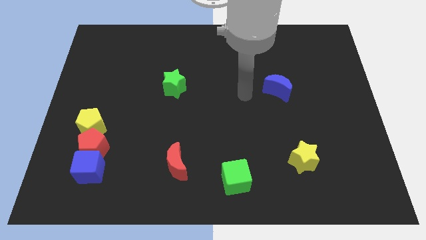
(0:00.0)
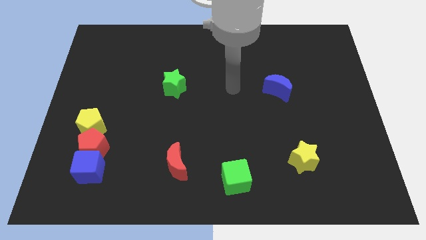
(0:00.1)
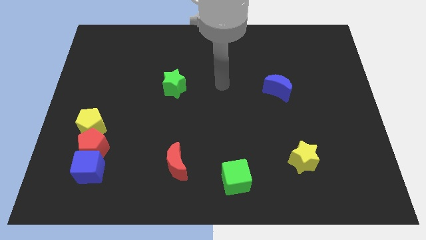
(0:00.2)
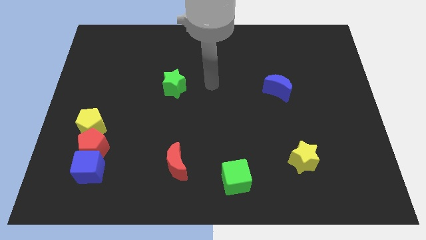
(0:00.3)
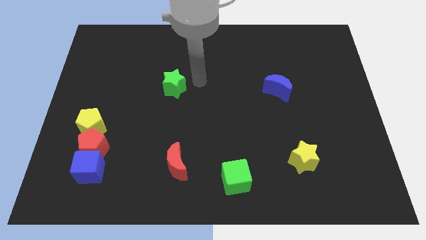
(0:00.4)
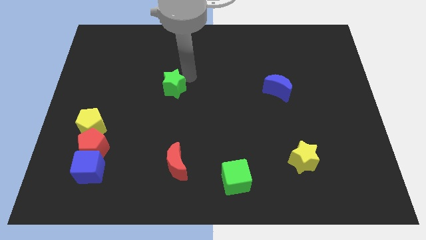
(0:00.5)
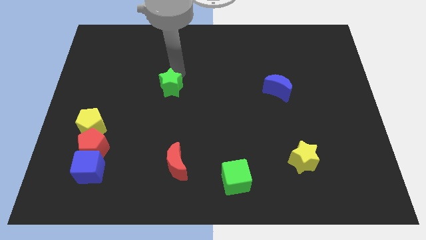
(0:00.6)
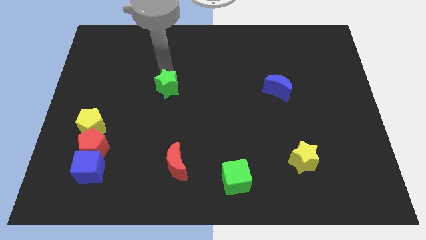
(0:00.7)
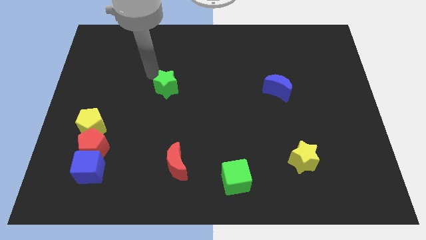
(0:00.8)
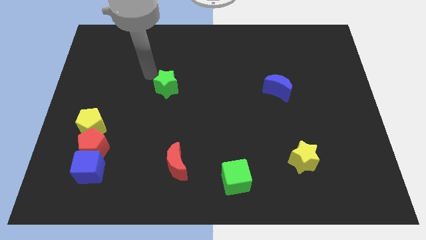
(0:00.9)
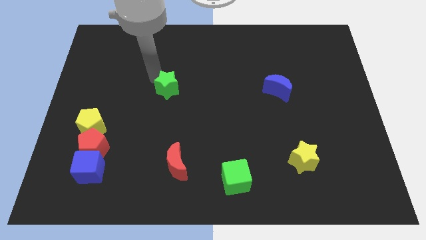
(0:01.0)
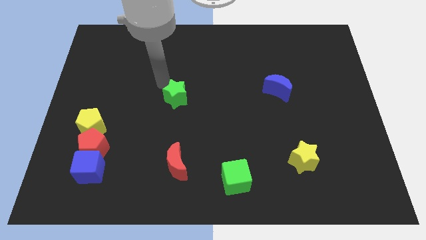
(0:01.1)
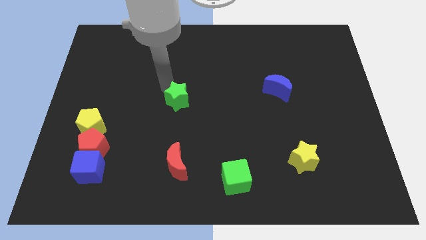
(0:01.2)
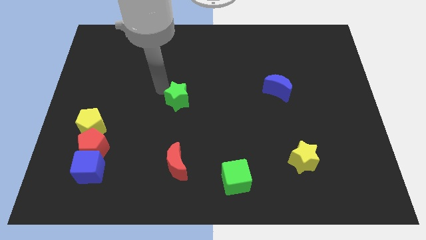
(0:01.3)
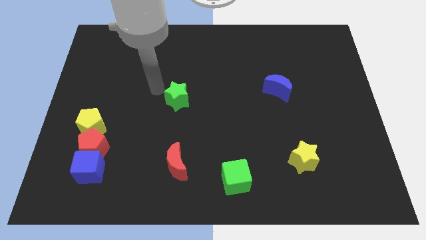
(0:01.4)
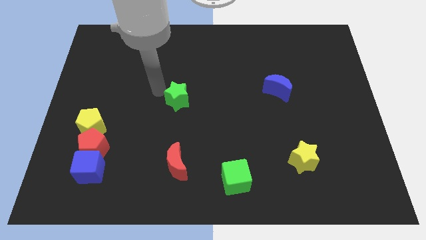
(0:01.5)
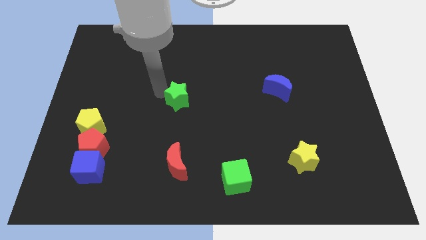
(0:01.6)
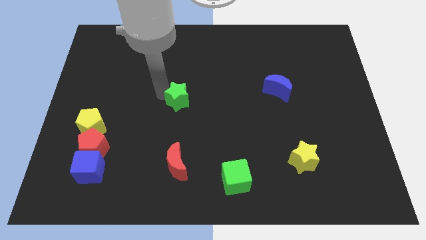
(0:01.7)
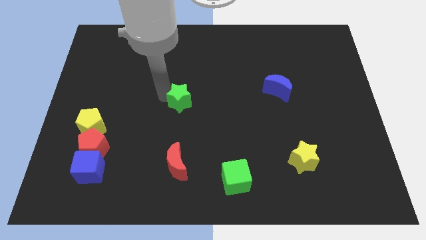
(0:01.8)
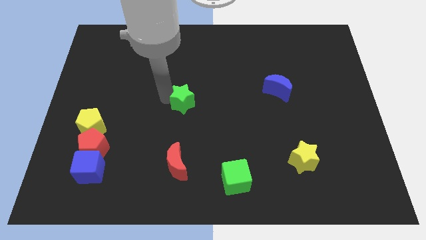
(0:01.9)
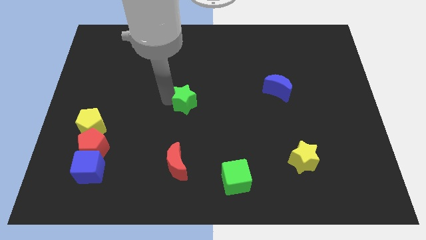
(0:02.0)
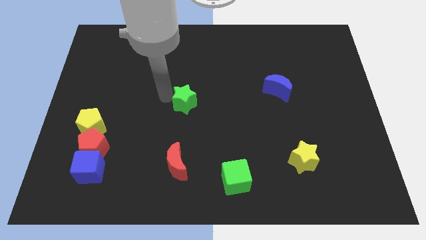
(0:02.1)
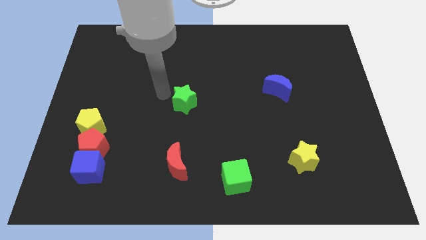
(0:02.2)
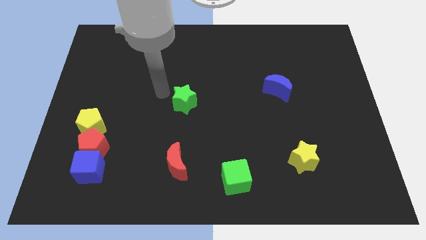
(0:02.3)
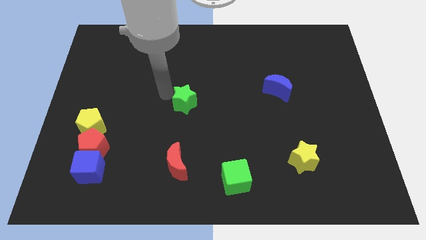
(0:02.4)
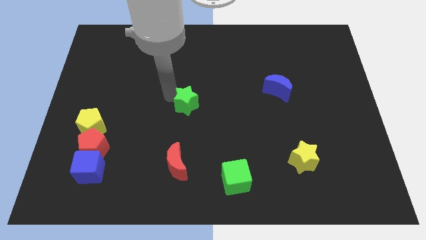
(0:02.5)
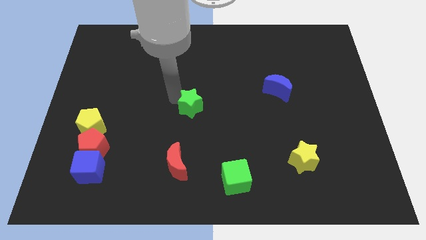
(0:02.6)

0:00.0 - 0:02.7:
slightly push the green star downwards and then to the right

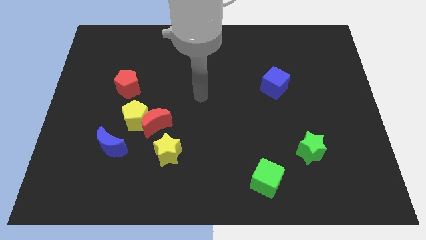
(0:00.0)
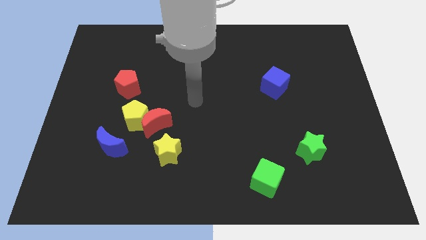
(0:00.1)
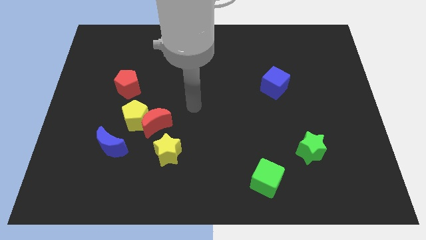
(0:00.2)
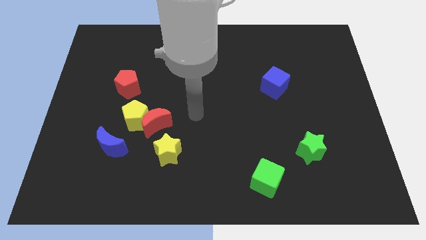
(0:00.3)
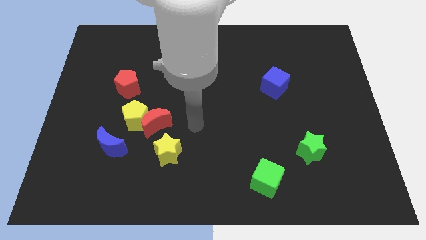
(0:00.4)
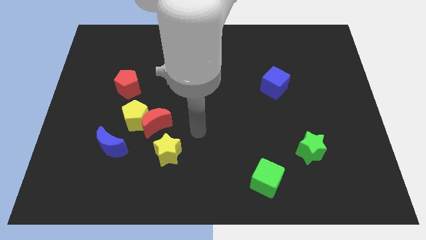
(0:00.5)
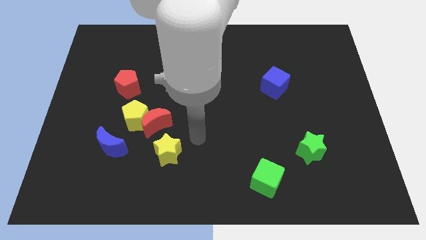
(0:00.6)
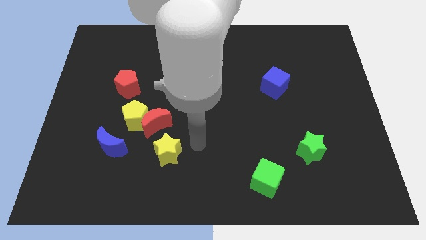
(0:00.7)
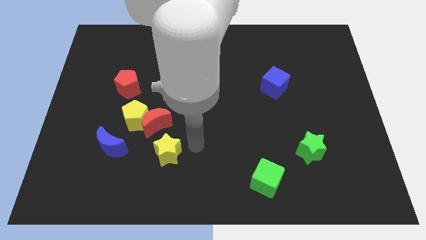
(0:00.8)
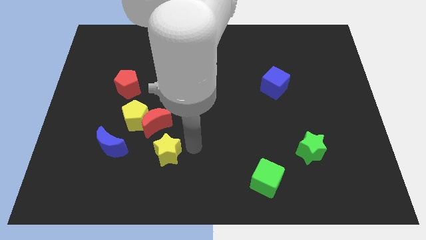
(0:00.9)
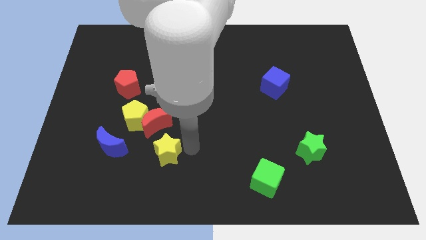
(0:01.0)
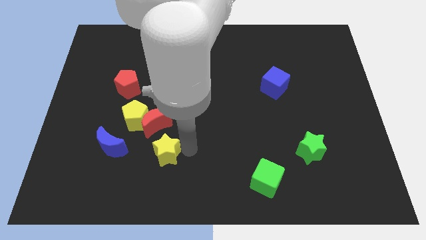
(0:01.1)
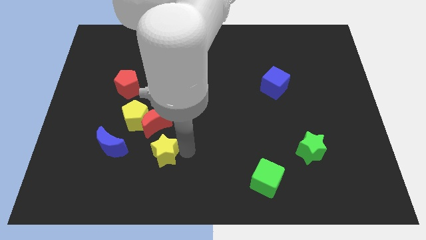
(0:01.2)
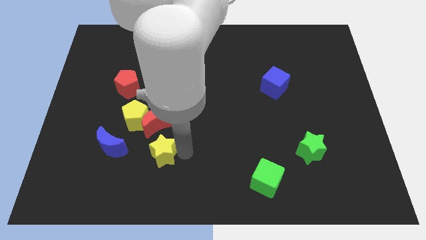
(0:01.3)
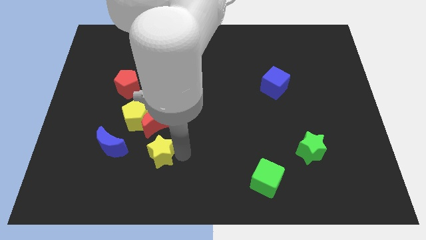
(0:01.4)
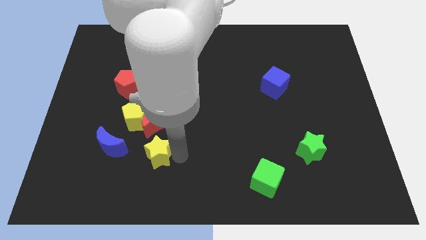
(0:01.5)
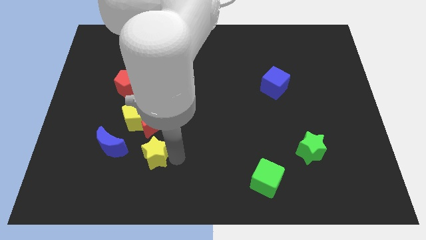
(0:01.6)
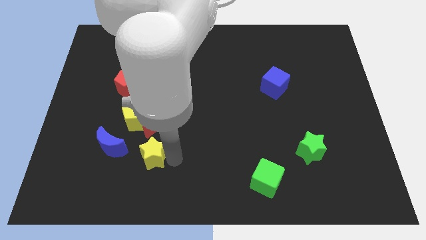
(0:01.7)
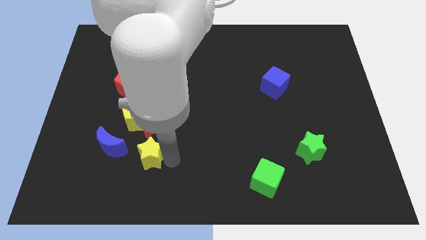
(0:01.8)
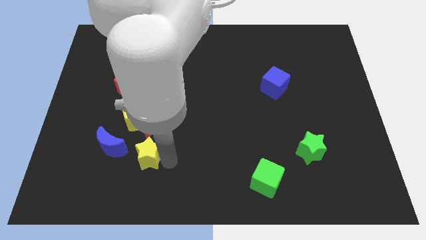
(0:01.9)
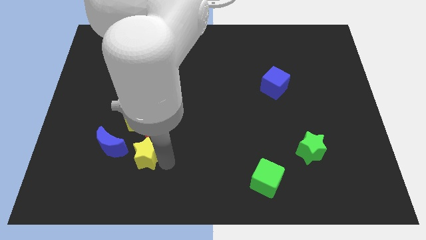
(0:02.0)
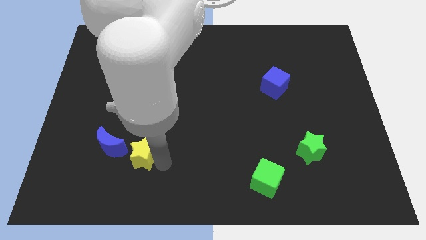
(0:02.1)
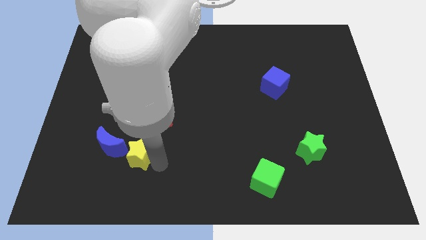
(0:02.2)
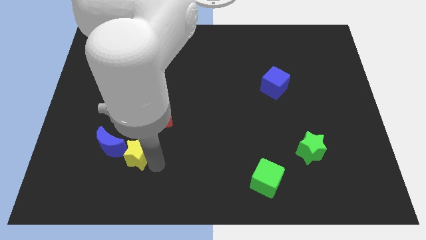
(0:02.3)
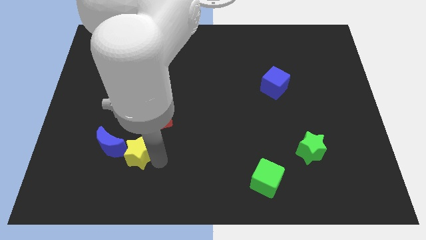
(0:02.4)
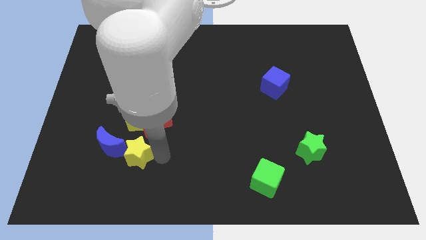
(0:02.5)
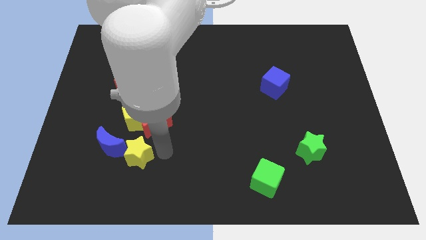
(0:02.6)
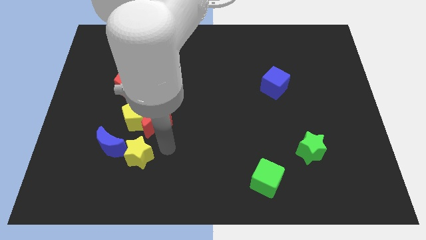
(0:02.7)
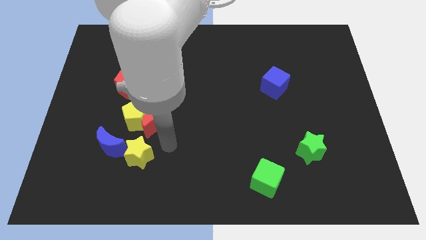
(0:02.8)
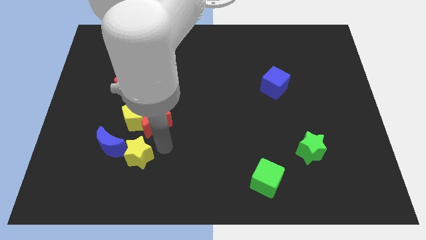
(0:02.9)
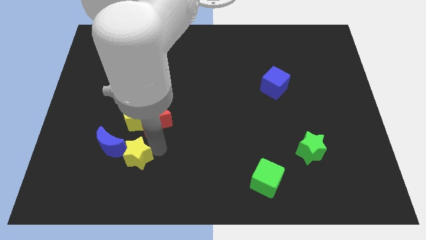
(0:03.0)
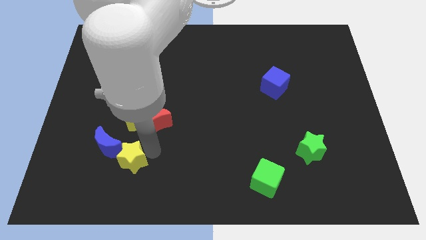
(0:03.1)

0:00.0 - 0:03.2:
push the yellow star left a little bit

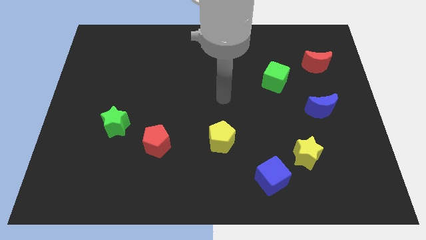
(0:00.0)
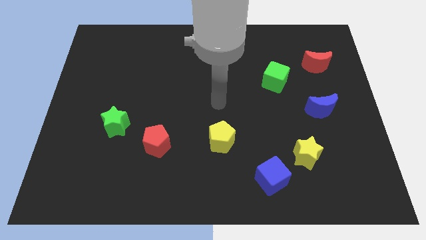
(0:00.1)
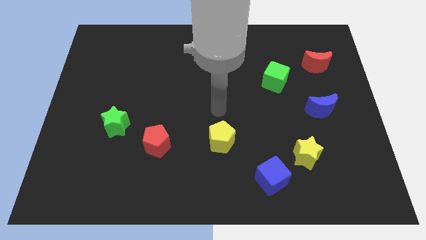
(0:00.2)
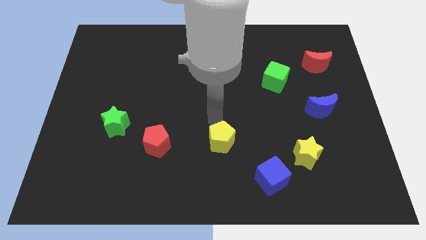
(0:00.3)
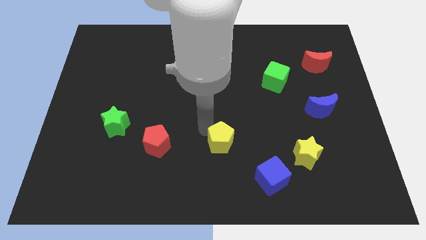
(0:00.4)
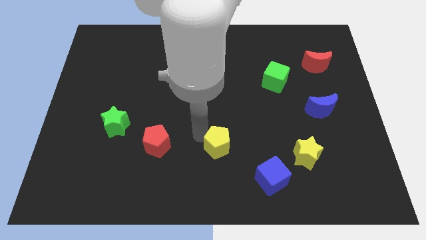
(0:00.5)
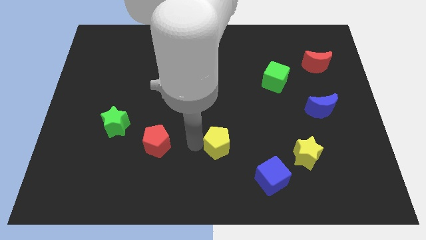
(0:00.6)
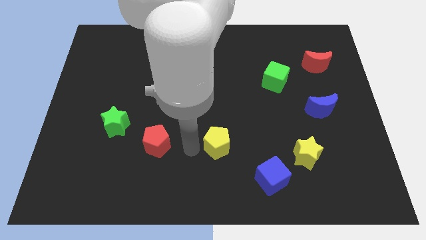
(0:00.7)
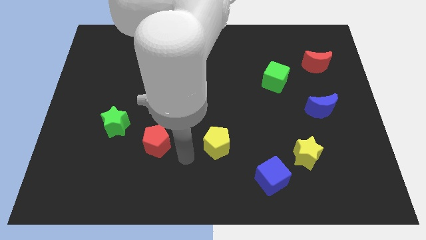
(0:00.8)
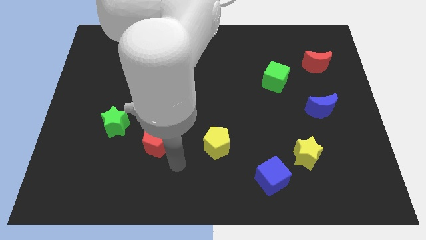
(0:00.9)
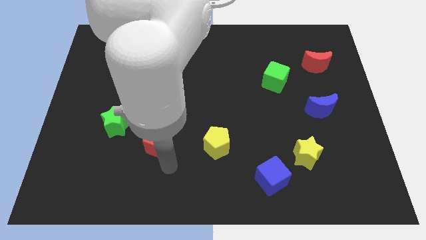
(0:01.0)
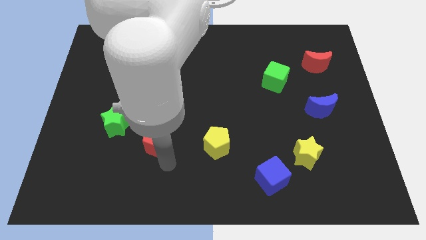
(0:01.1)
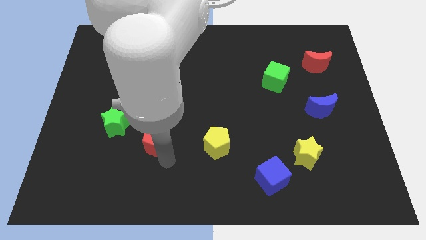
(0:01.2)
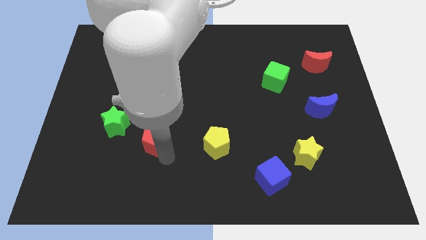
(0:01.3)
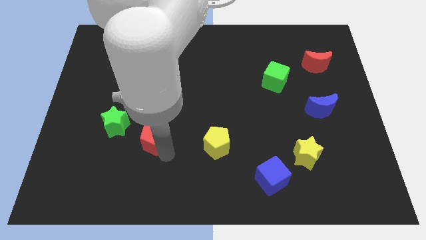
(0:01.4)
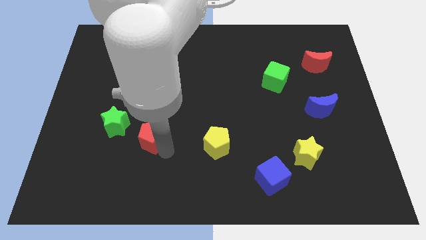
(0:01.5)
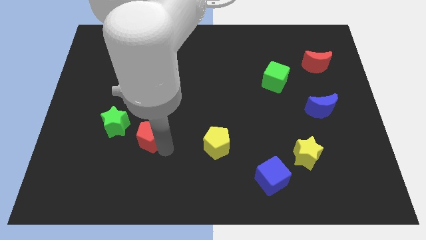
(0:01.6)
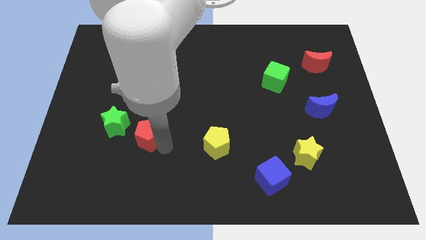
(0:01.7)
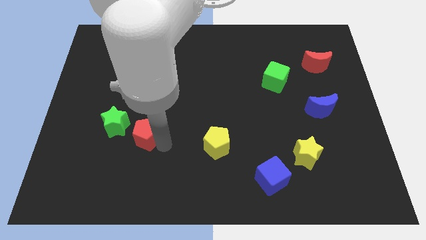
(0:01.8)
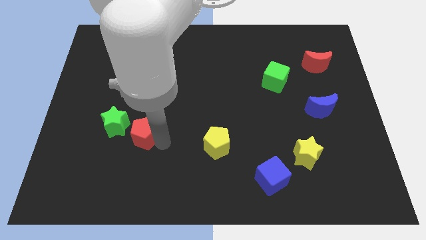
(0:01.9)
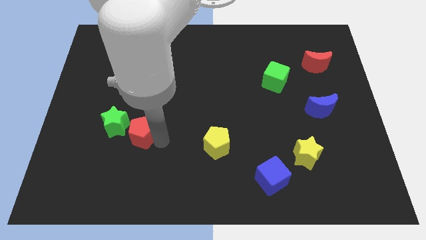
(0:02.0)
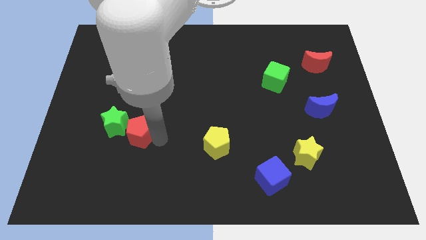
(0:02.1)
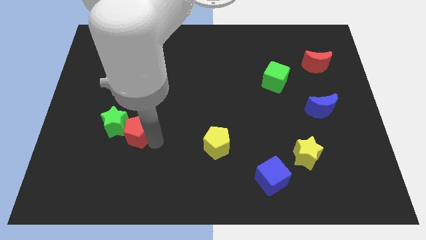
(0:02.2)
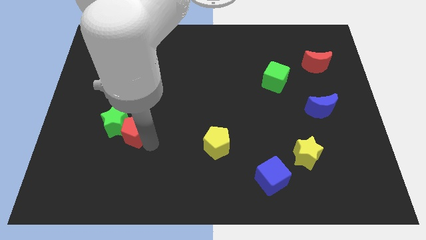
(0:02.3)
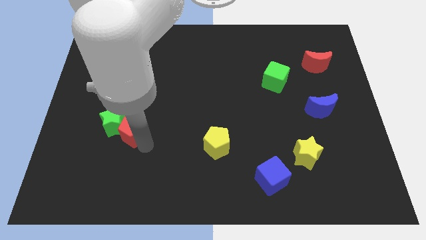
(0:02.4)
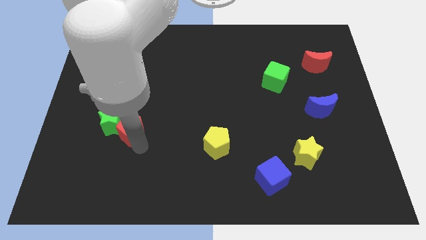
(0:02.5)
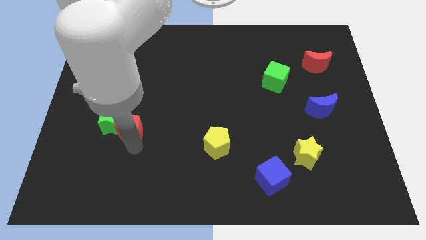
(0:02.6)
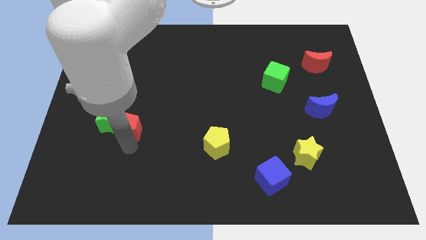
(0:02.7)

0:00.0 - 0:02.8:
slide the red pentagon a bit diagonally upwards and left

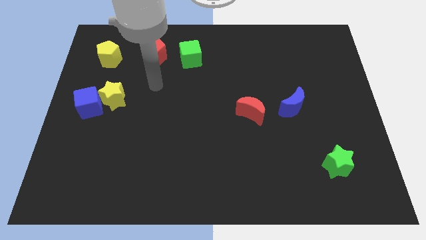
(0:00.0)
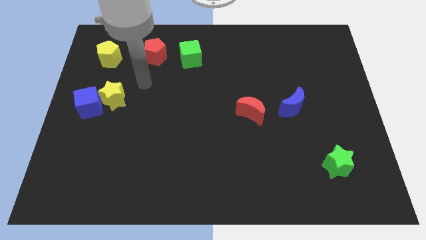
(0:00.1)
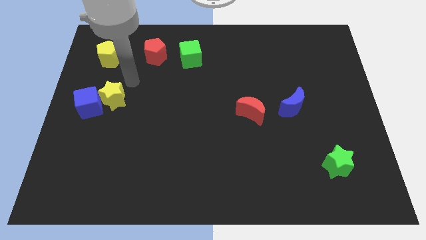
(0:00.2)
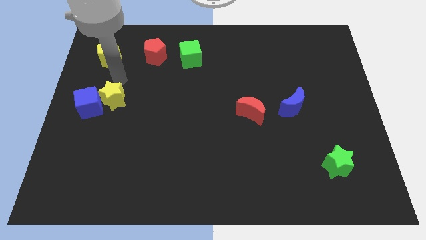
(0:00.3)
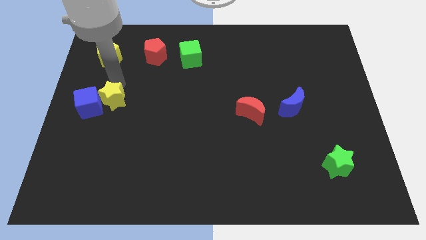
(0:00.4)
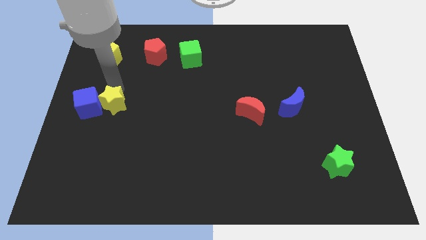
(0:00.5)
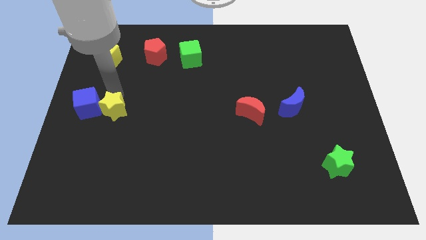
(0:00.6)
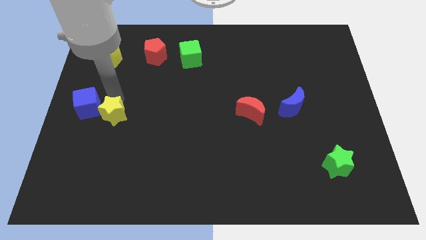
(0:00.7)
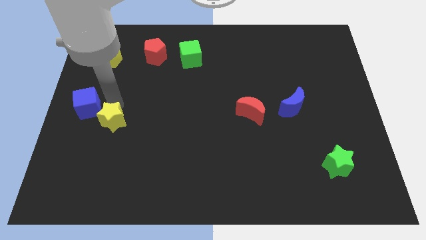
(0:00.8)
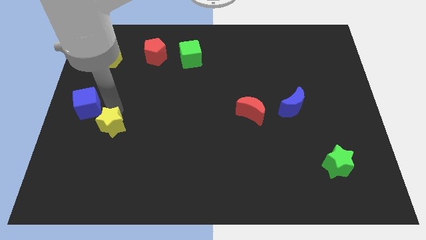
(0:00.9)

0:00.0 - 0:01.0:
push the yellow star down somewhat
